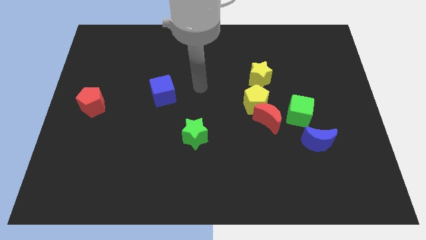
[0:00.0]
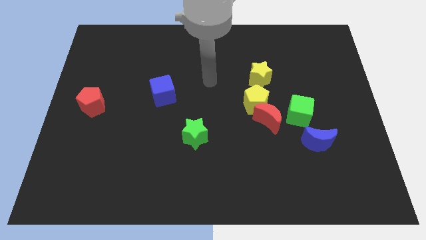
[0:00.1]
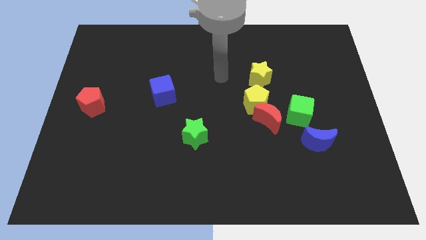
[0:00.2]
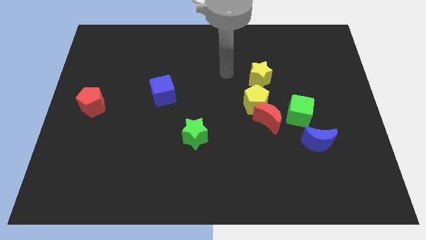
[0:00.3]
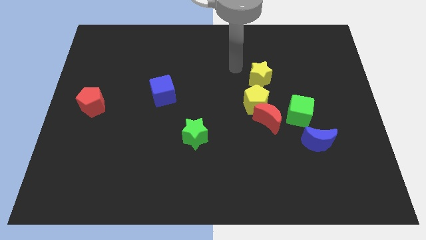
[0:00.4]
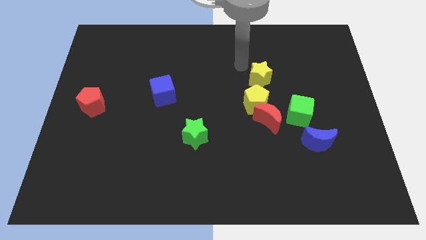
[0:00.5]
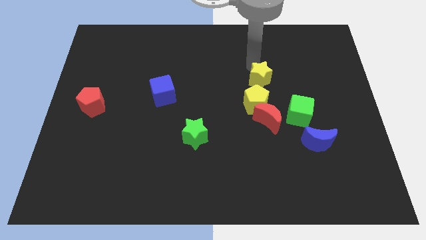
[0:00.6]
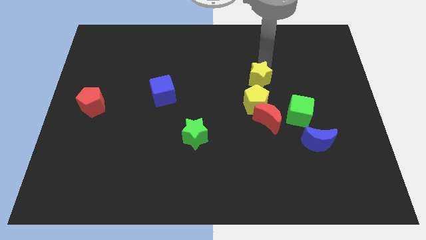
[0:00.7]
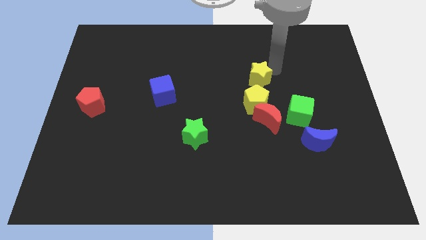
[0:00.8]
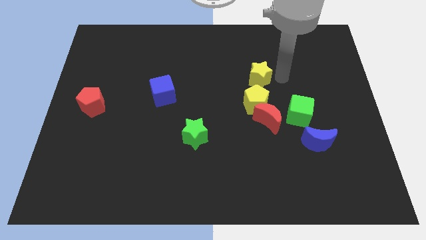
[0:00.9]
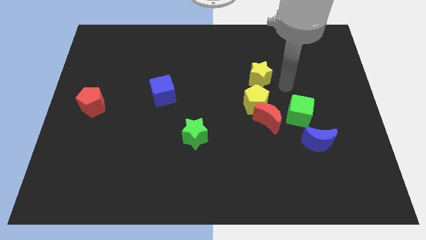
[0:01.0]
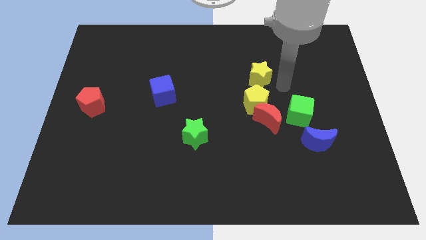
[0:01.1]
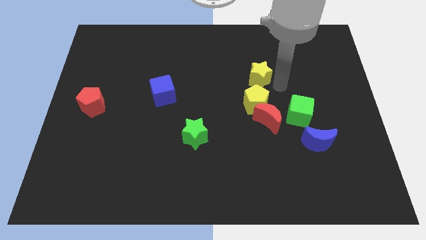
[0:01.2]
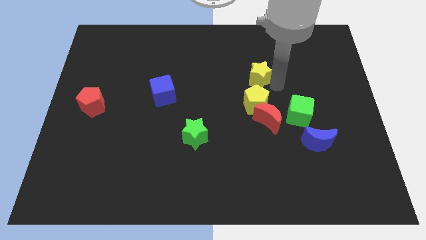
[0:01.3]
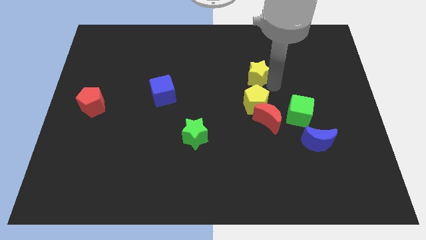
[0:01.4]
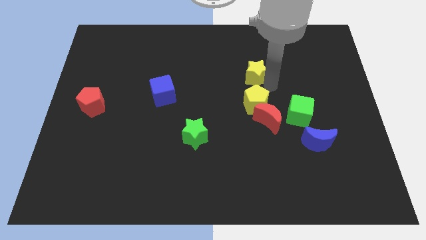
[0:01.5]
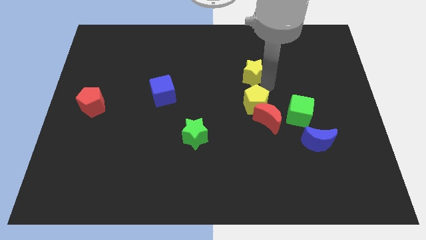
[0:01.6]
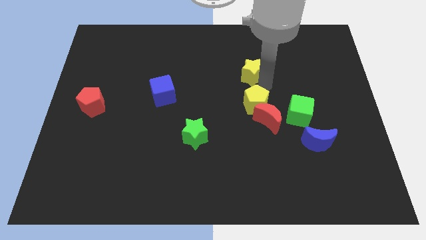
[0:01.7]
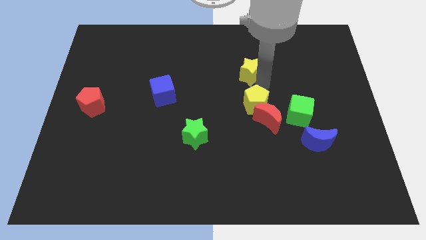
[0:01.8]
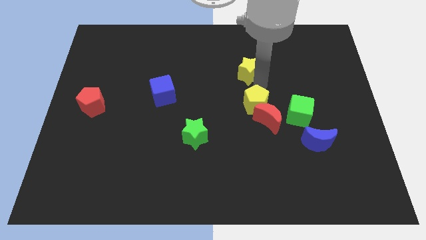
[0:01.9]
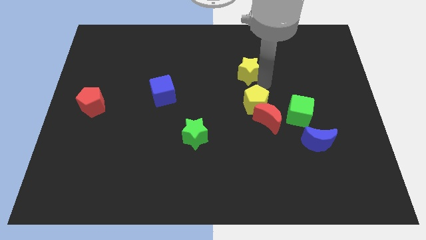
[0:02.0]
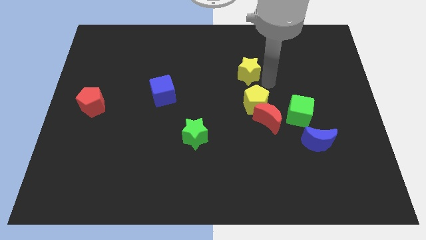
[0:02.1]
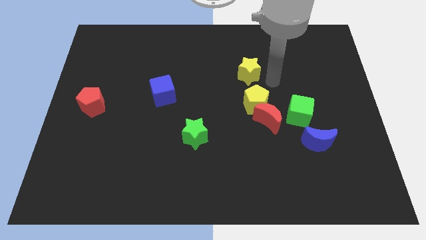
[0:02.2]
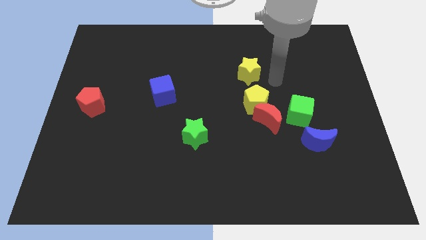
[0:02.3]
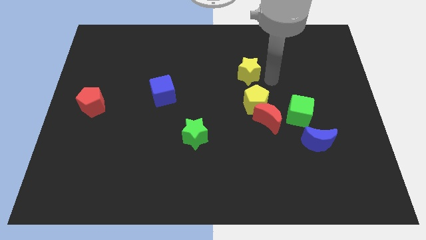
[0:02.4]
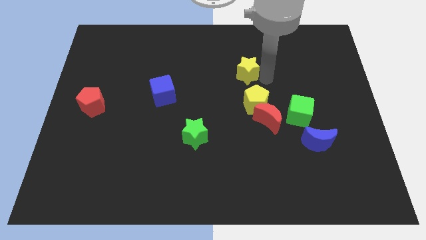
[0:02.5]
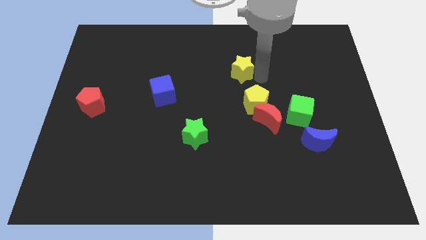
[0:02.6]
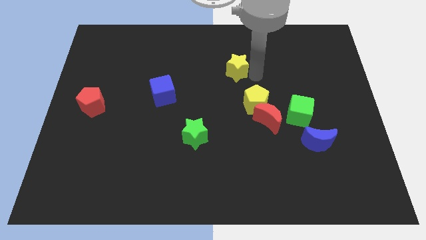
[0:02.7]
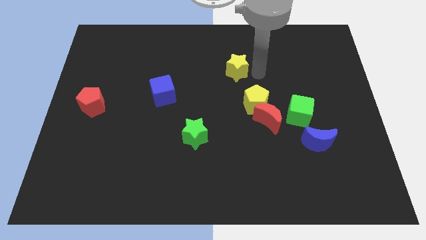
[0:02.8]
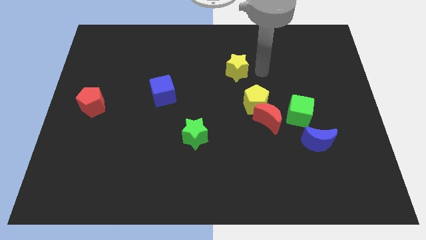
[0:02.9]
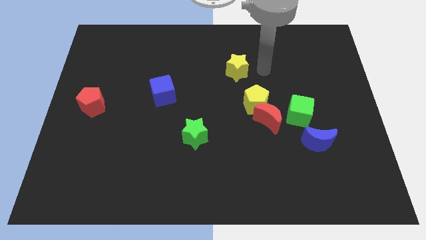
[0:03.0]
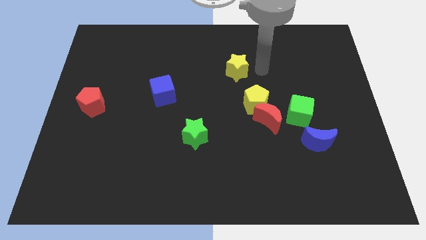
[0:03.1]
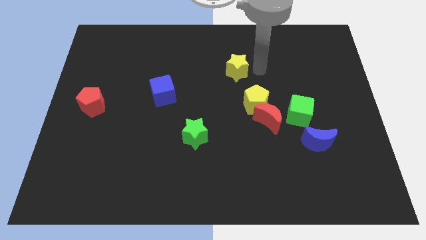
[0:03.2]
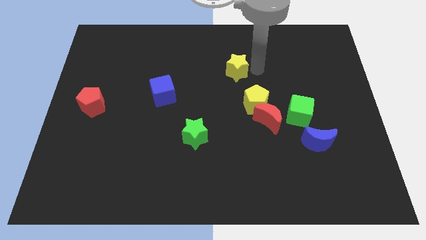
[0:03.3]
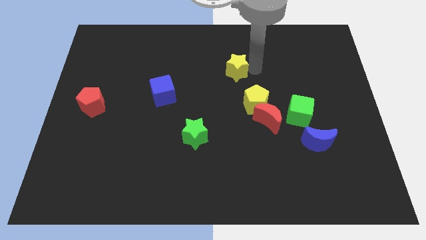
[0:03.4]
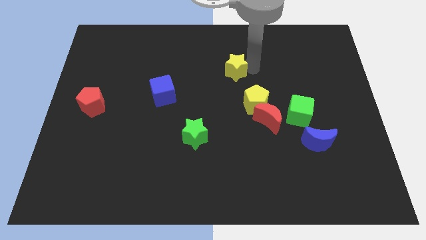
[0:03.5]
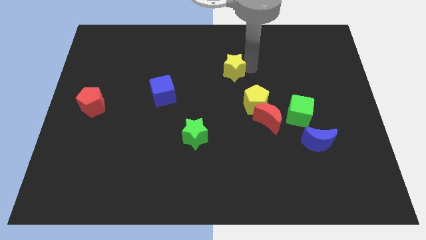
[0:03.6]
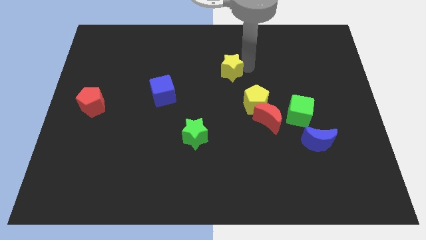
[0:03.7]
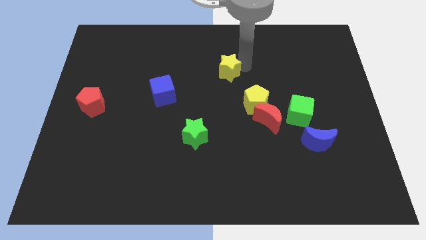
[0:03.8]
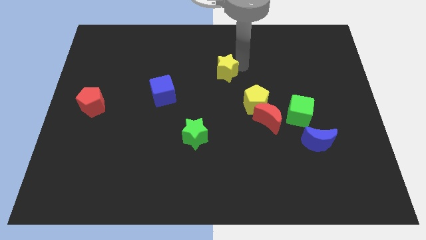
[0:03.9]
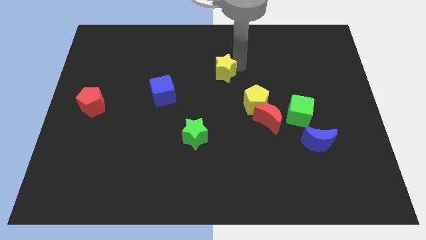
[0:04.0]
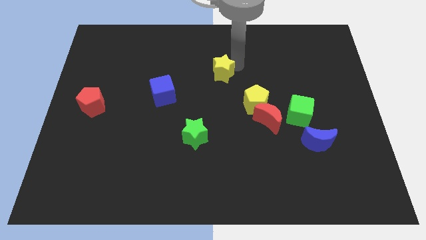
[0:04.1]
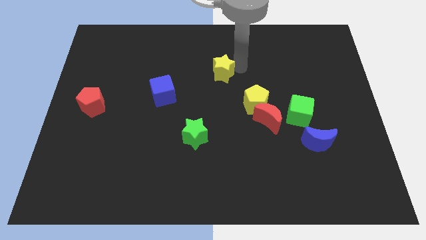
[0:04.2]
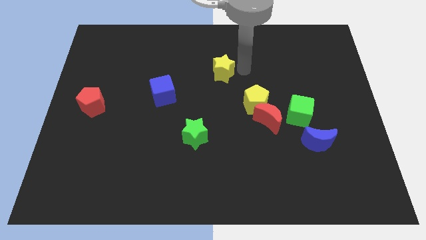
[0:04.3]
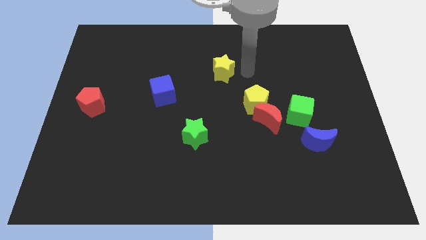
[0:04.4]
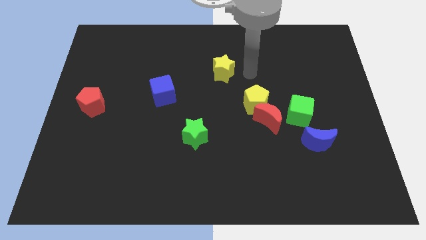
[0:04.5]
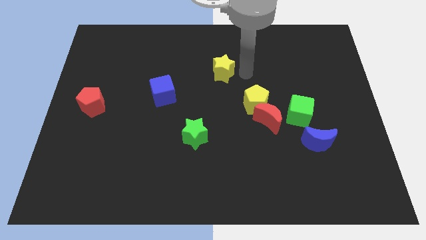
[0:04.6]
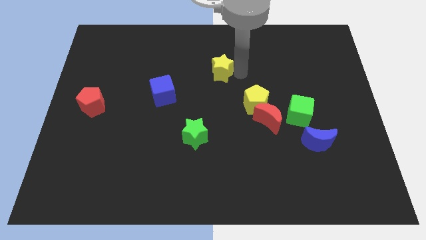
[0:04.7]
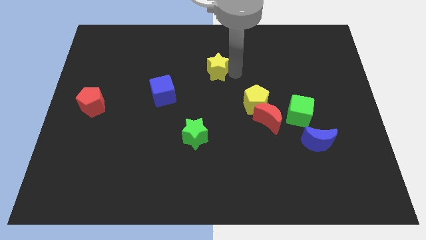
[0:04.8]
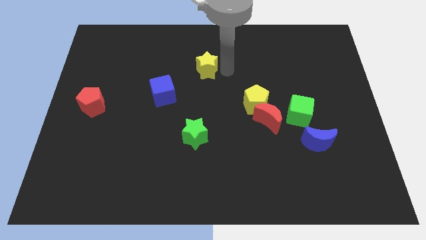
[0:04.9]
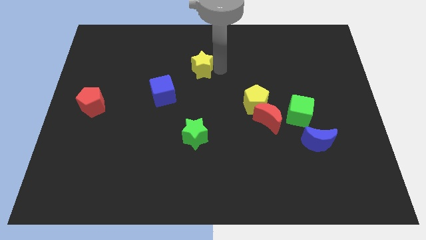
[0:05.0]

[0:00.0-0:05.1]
move the yellow star to the top right side of the blue cube

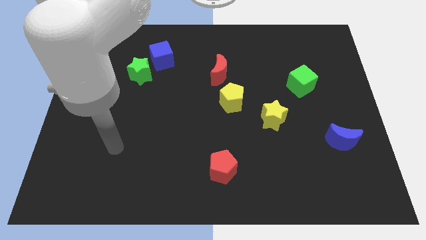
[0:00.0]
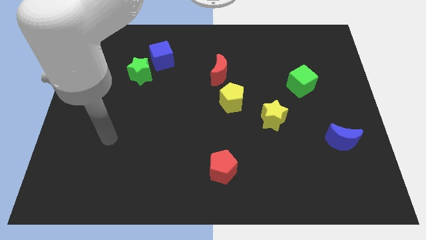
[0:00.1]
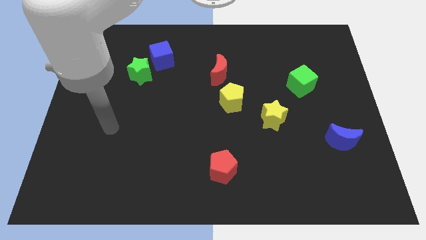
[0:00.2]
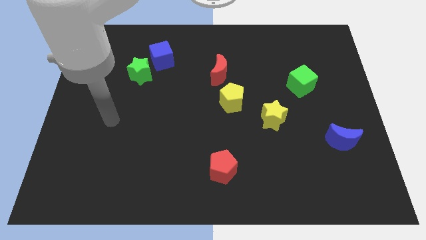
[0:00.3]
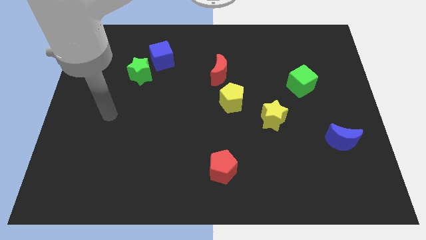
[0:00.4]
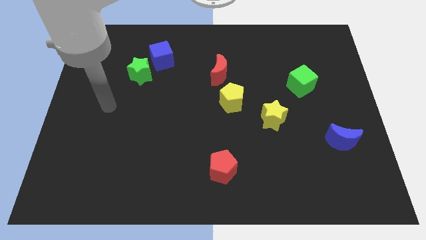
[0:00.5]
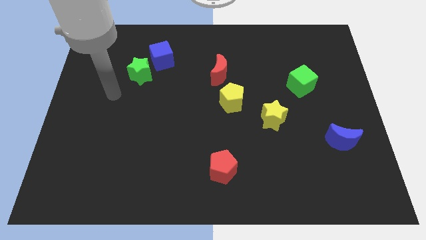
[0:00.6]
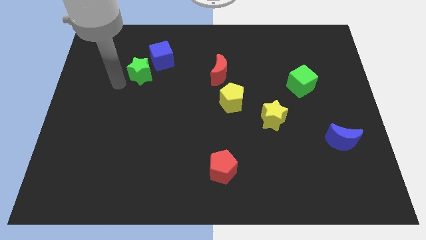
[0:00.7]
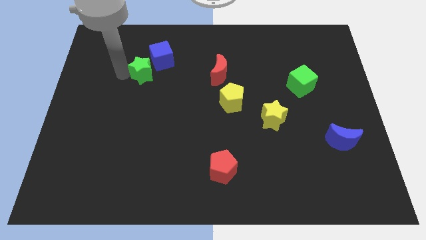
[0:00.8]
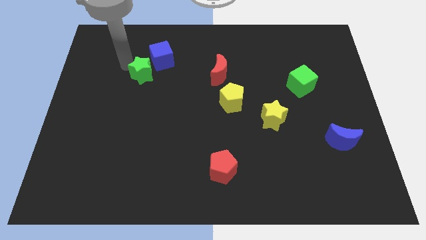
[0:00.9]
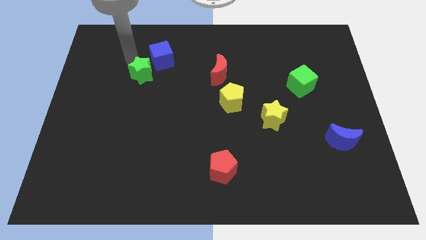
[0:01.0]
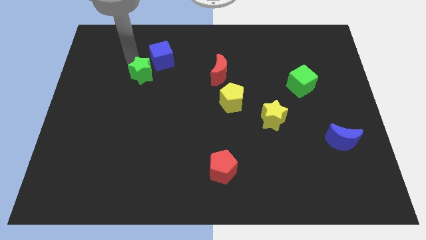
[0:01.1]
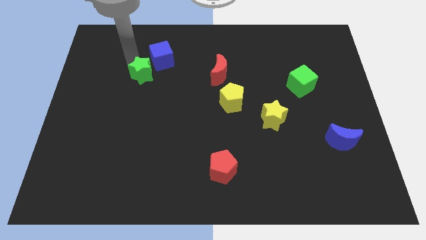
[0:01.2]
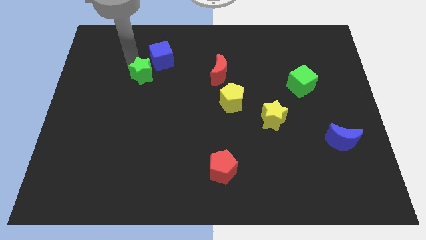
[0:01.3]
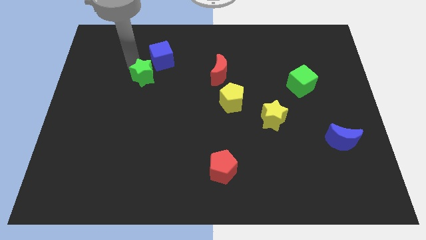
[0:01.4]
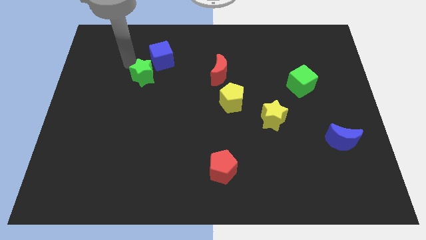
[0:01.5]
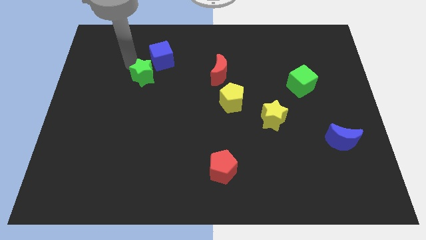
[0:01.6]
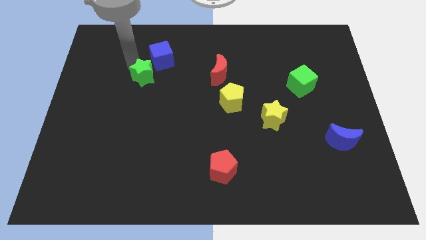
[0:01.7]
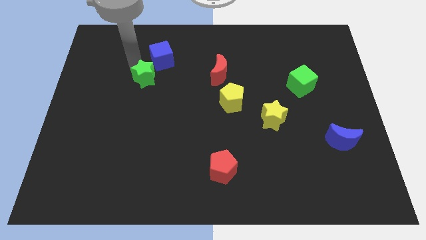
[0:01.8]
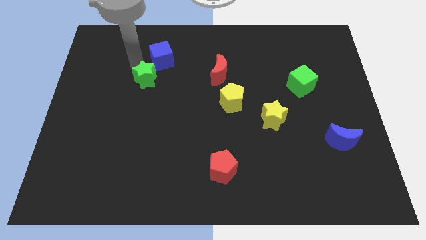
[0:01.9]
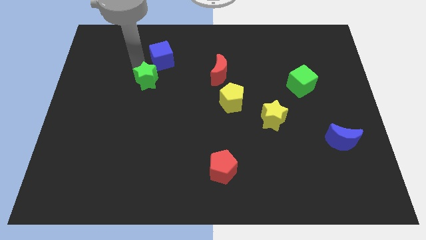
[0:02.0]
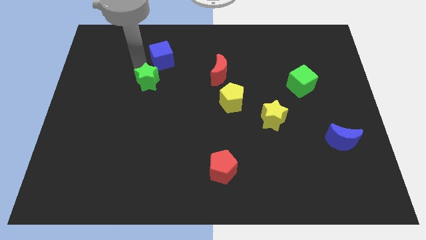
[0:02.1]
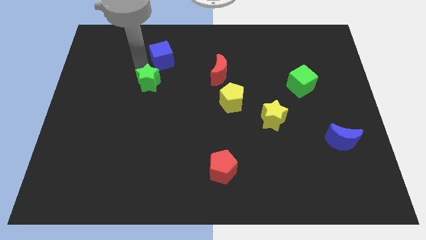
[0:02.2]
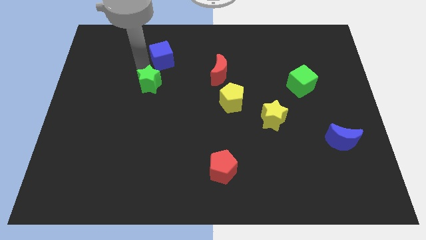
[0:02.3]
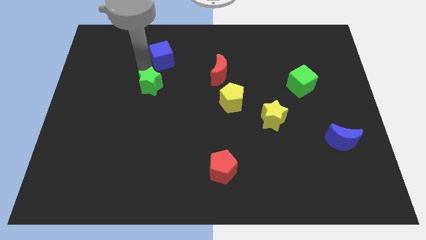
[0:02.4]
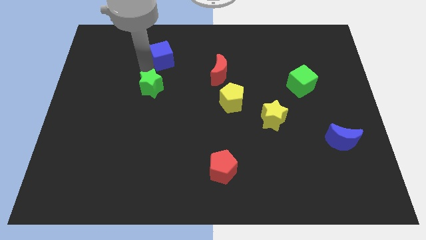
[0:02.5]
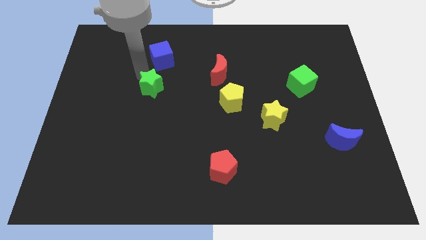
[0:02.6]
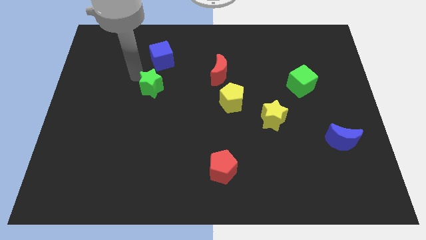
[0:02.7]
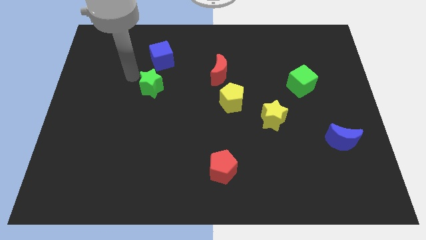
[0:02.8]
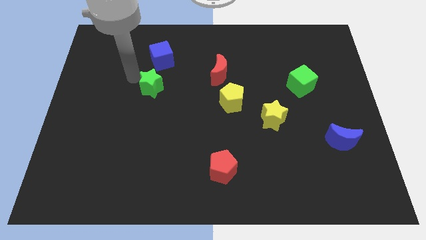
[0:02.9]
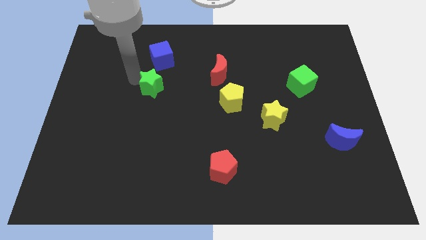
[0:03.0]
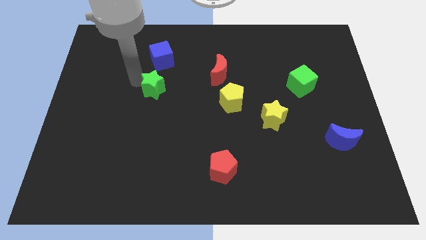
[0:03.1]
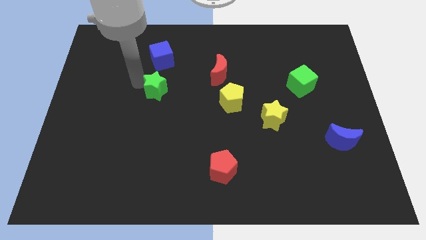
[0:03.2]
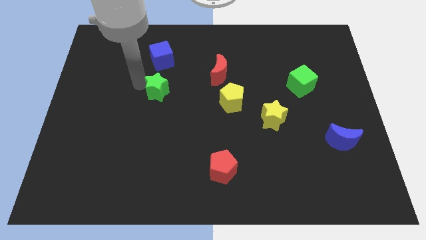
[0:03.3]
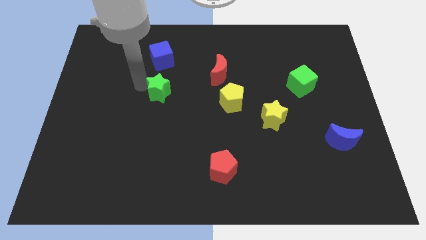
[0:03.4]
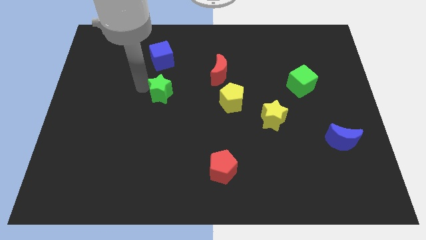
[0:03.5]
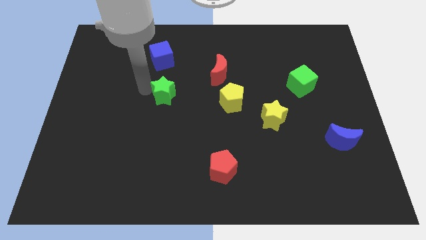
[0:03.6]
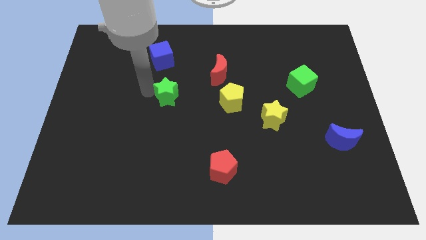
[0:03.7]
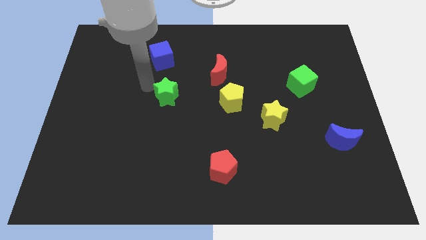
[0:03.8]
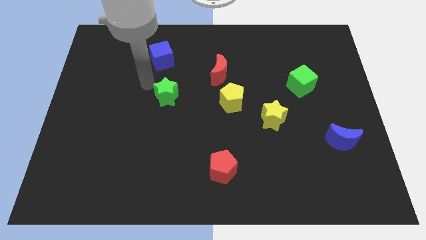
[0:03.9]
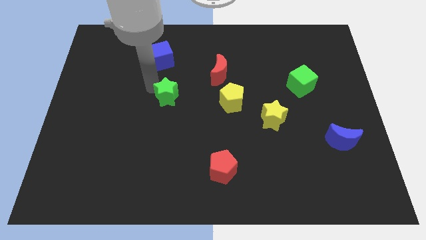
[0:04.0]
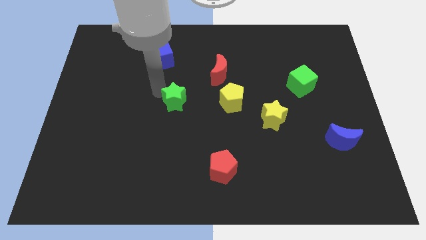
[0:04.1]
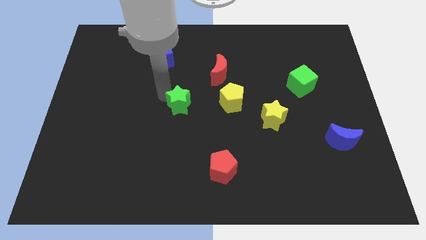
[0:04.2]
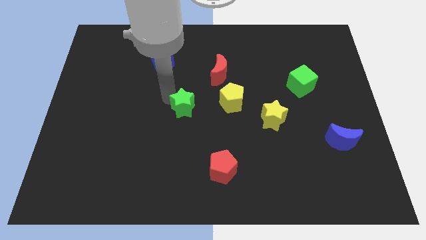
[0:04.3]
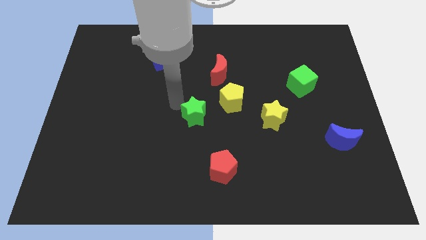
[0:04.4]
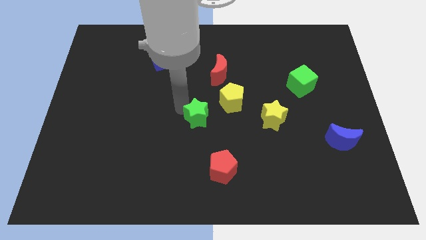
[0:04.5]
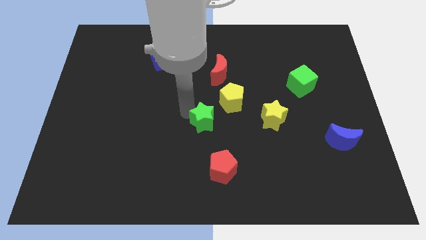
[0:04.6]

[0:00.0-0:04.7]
move the green star to the top of the red pentagon
